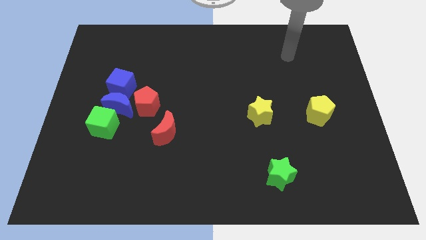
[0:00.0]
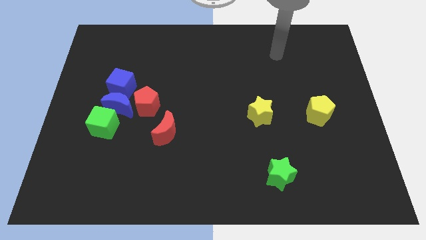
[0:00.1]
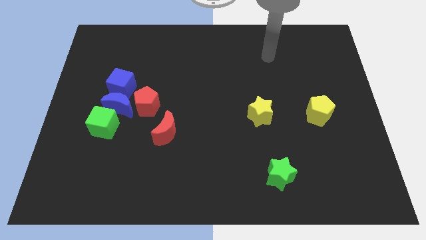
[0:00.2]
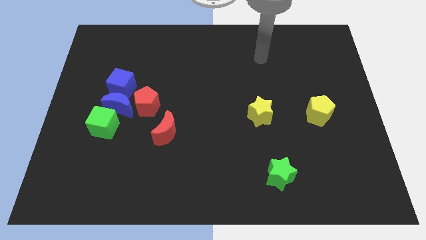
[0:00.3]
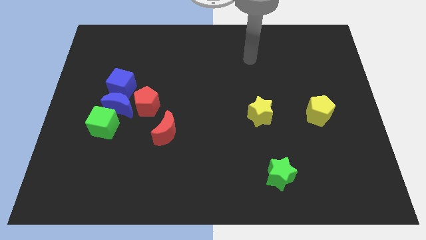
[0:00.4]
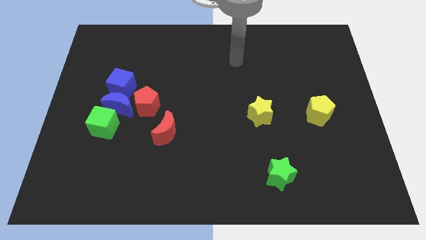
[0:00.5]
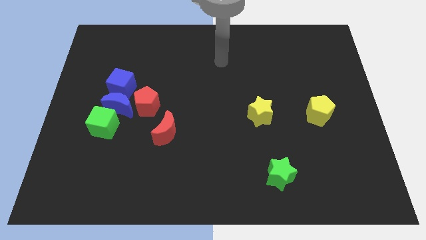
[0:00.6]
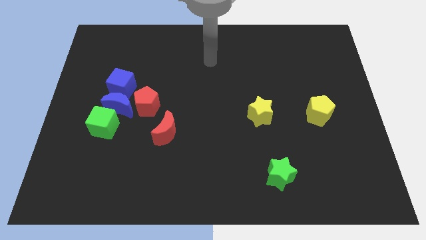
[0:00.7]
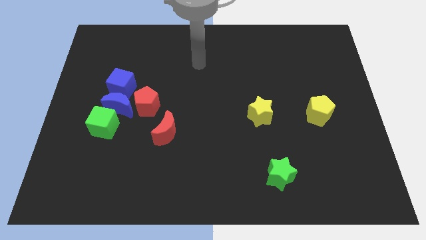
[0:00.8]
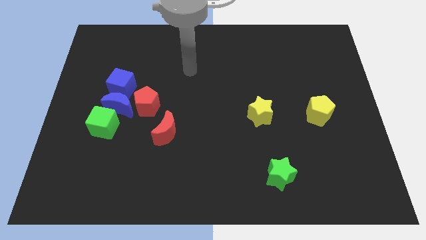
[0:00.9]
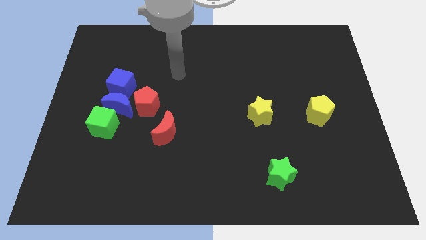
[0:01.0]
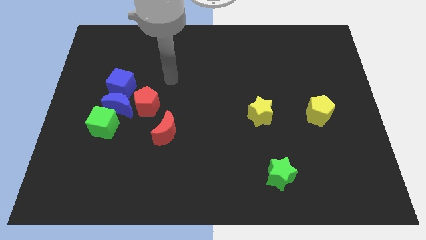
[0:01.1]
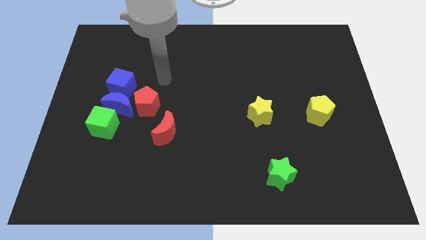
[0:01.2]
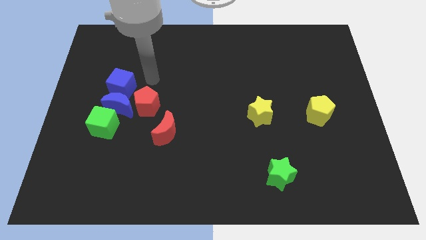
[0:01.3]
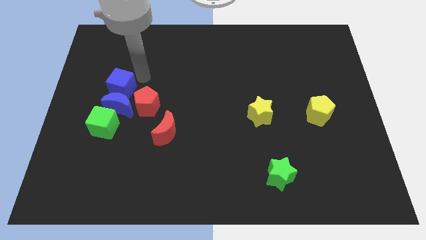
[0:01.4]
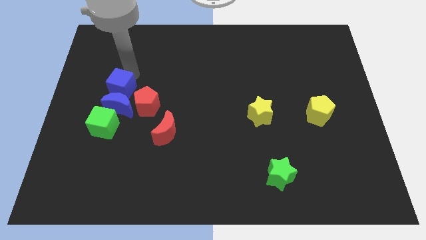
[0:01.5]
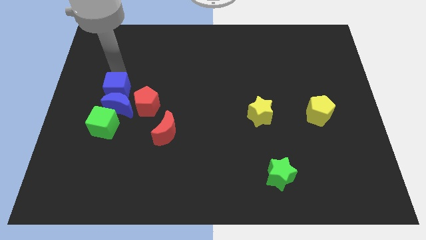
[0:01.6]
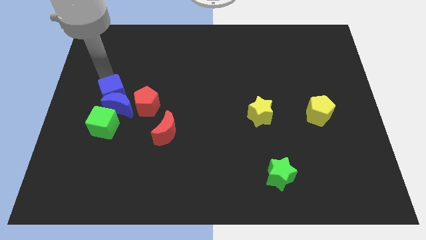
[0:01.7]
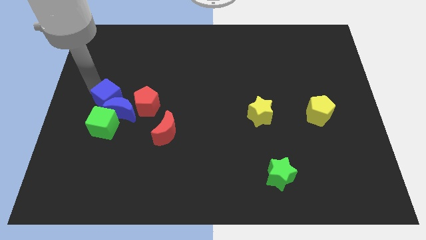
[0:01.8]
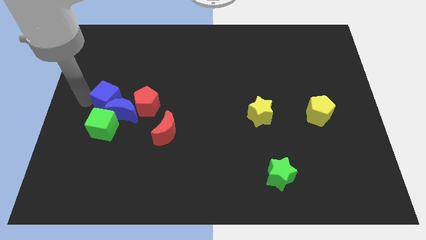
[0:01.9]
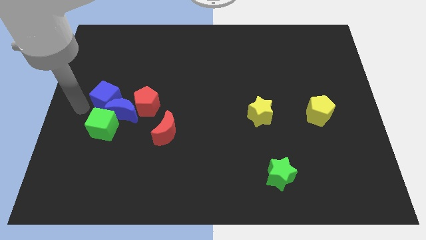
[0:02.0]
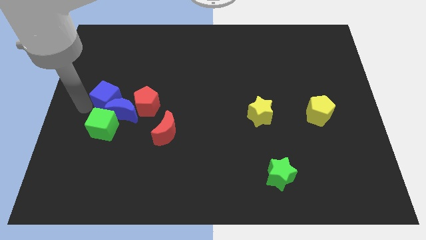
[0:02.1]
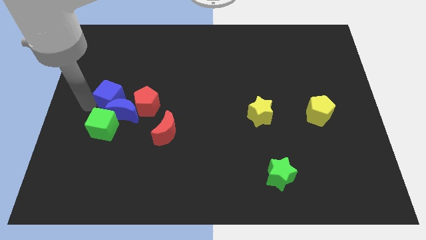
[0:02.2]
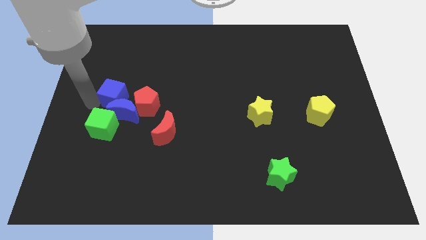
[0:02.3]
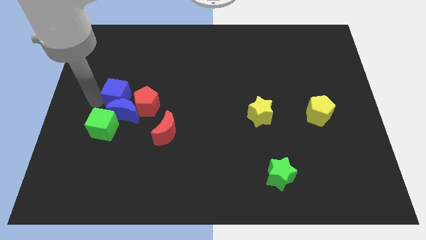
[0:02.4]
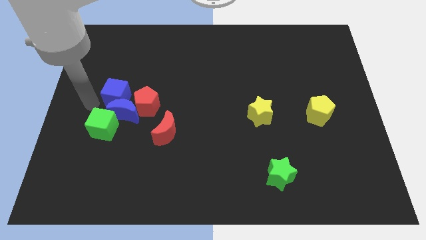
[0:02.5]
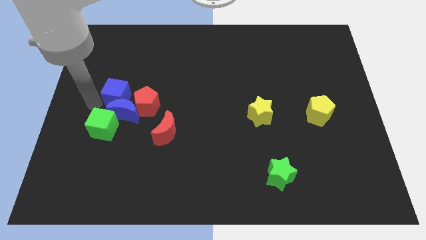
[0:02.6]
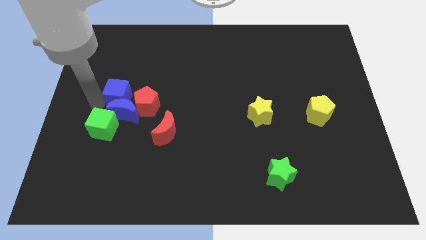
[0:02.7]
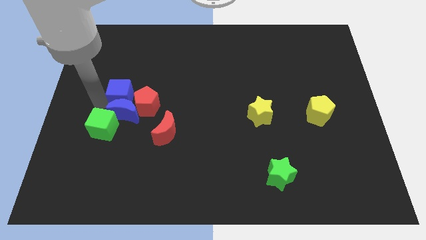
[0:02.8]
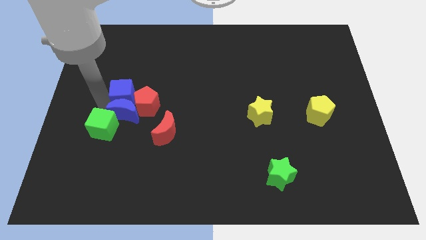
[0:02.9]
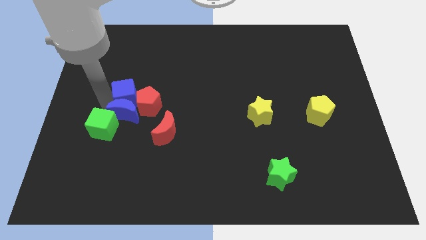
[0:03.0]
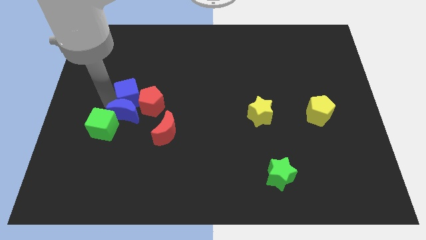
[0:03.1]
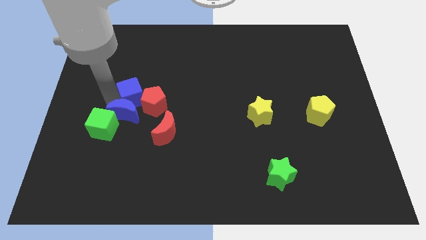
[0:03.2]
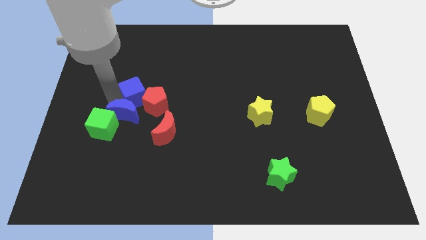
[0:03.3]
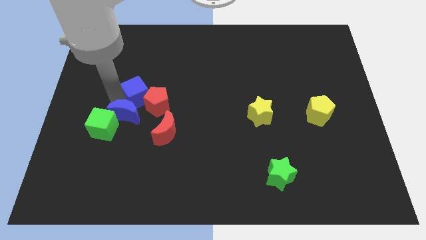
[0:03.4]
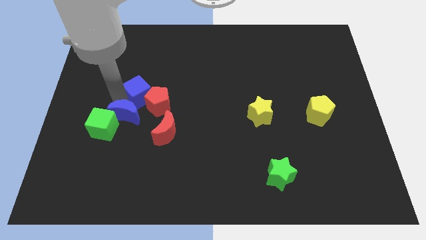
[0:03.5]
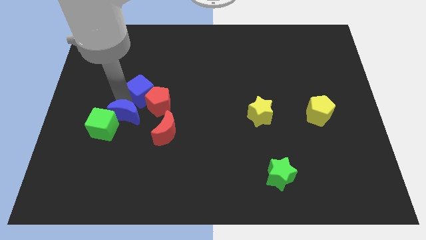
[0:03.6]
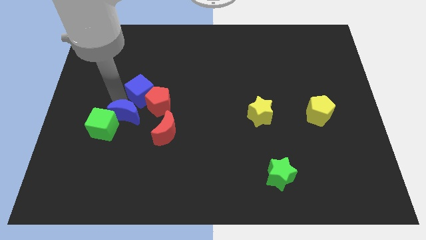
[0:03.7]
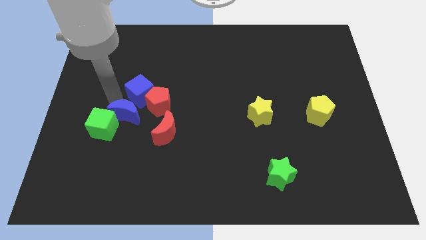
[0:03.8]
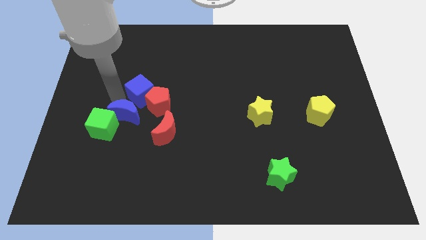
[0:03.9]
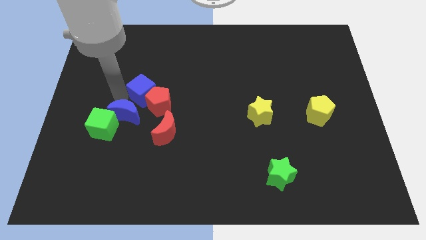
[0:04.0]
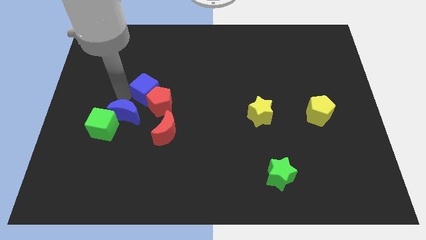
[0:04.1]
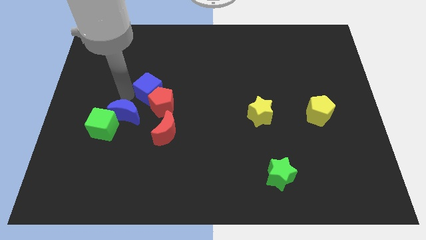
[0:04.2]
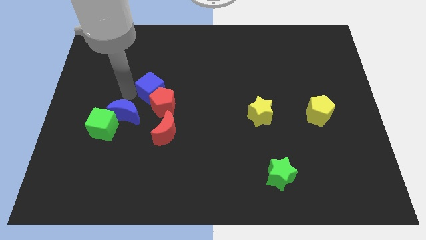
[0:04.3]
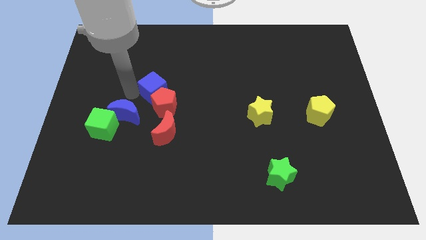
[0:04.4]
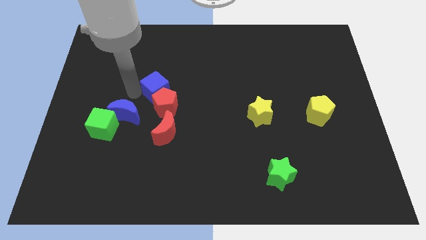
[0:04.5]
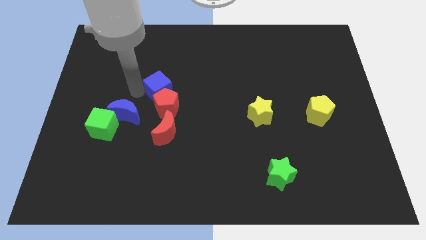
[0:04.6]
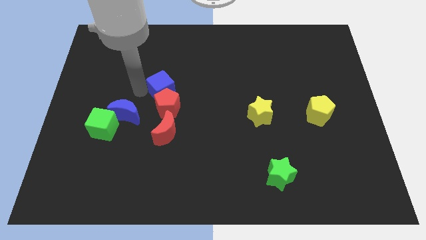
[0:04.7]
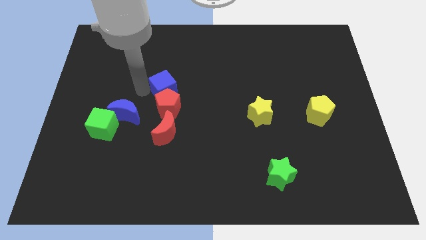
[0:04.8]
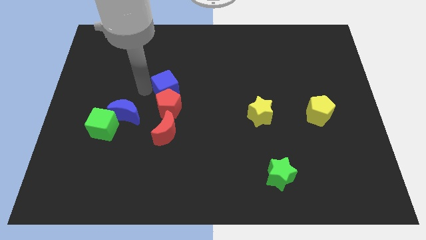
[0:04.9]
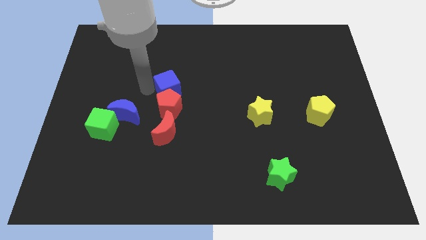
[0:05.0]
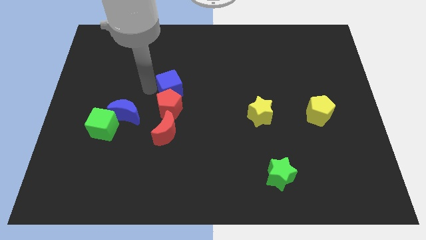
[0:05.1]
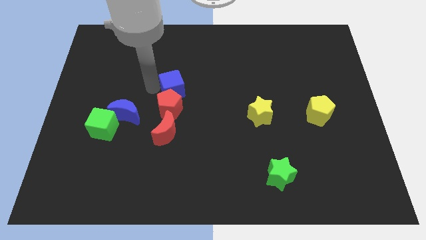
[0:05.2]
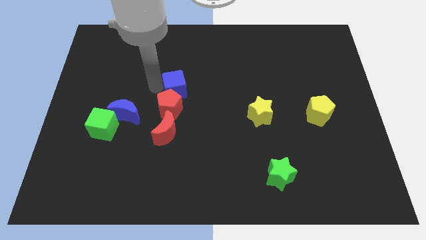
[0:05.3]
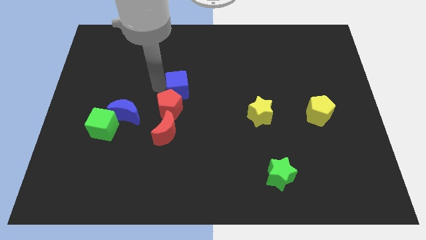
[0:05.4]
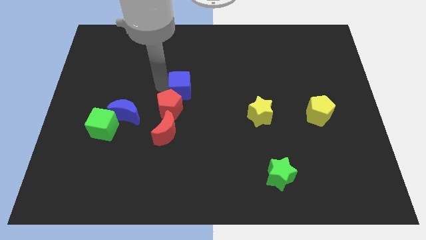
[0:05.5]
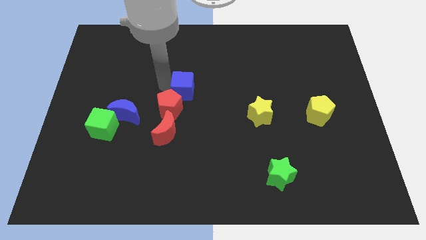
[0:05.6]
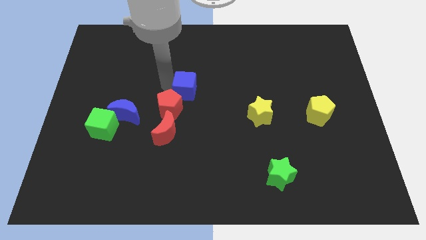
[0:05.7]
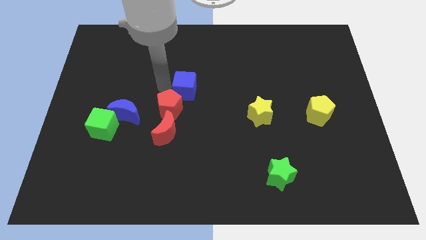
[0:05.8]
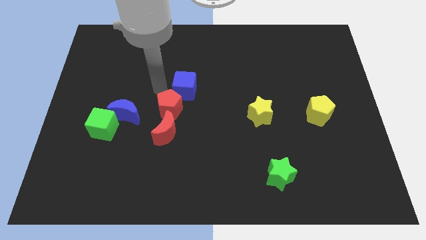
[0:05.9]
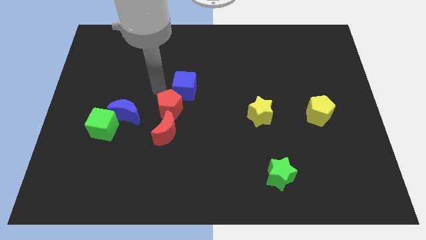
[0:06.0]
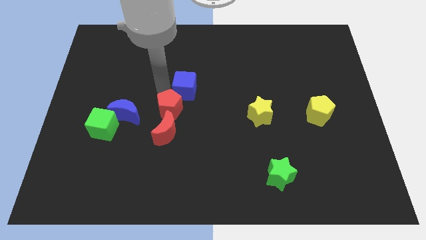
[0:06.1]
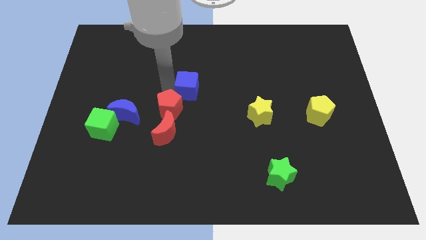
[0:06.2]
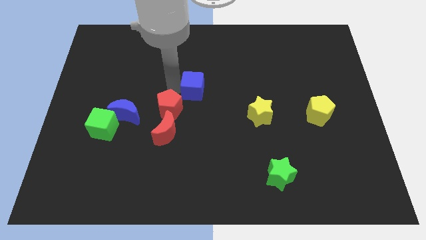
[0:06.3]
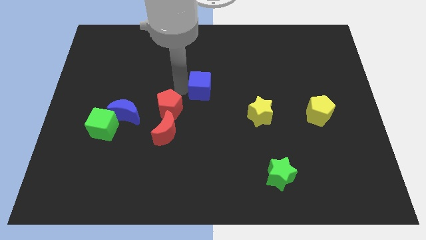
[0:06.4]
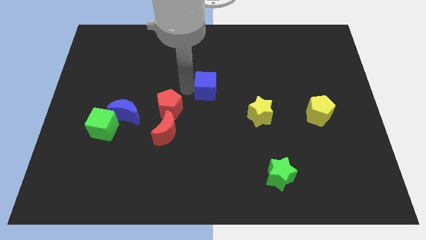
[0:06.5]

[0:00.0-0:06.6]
move the blue cube right

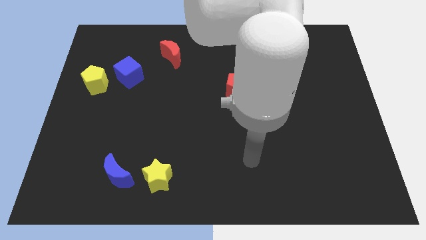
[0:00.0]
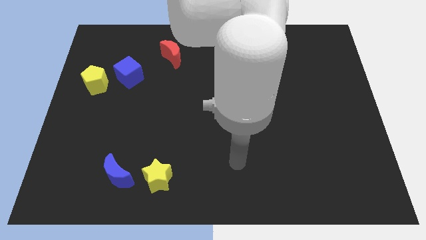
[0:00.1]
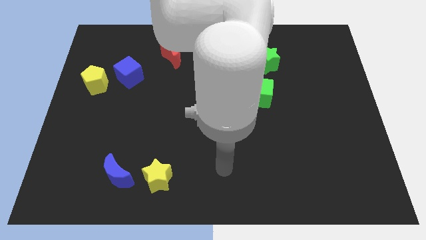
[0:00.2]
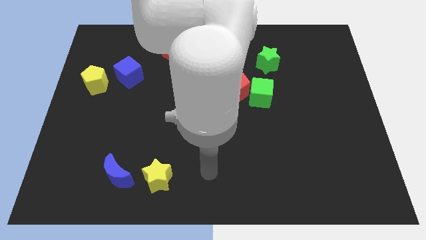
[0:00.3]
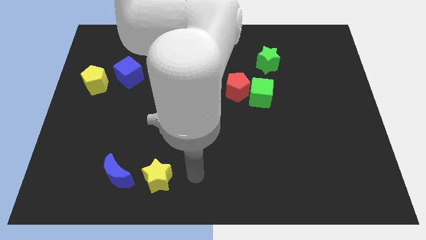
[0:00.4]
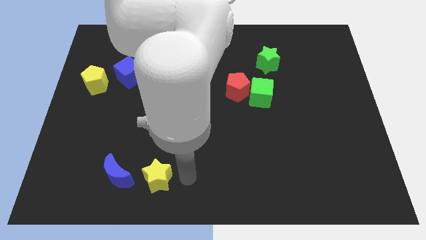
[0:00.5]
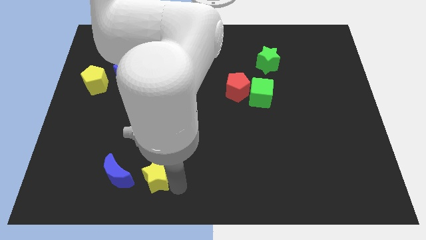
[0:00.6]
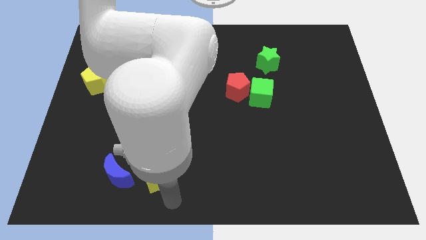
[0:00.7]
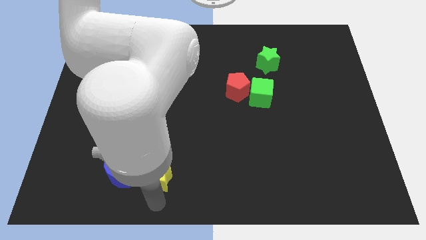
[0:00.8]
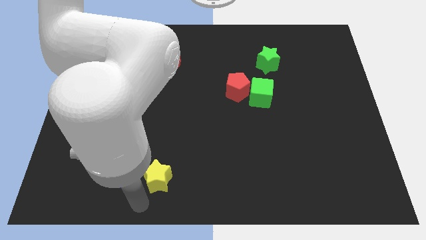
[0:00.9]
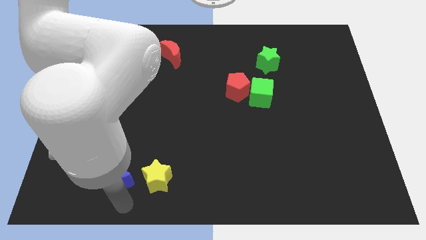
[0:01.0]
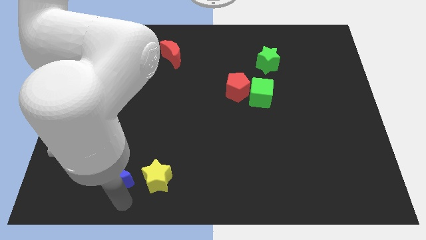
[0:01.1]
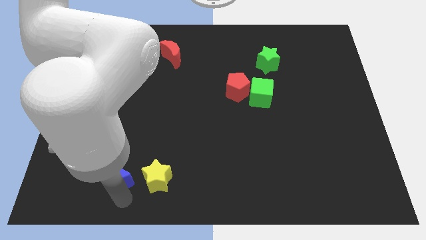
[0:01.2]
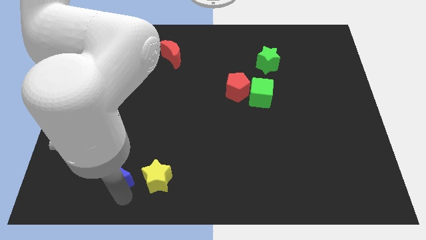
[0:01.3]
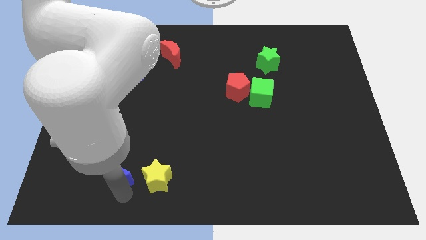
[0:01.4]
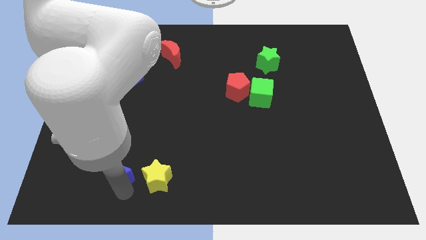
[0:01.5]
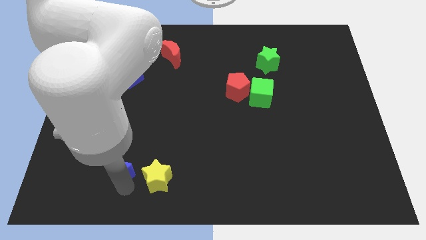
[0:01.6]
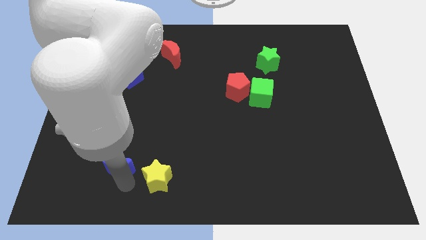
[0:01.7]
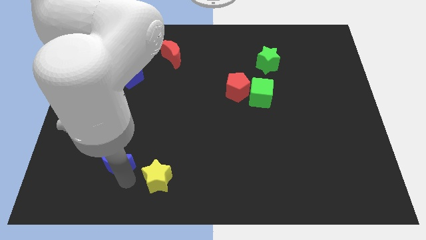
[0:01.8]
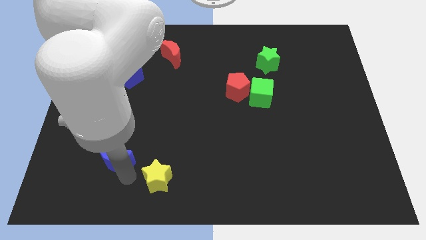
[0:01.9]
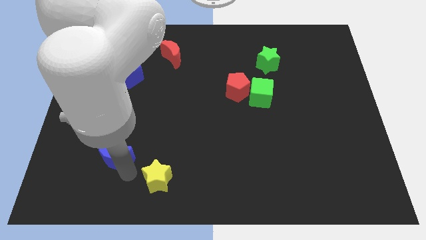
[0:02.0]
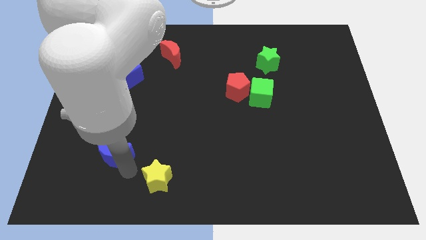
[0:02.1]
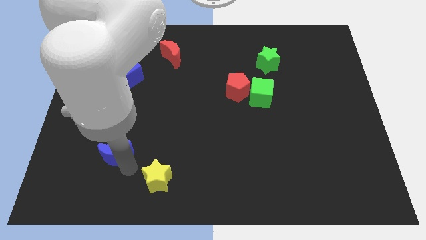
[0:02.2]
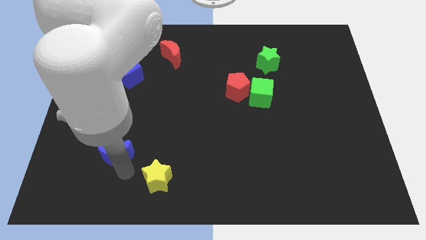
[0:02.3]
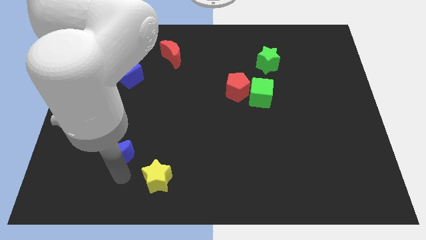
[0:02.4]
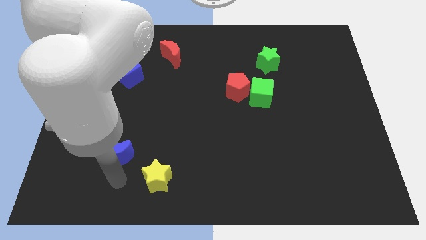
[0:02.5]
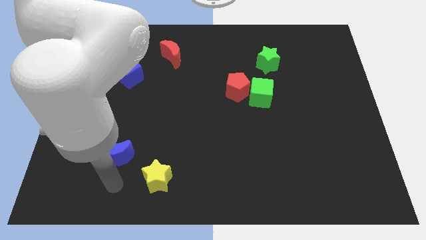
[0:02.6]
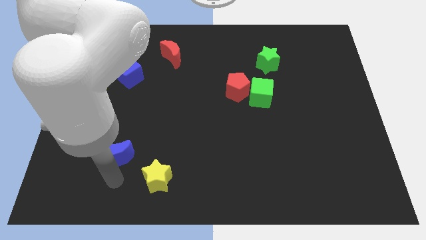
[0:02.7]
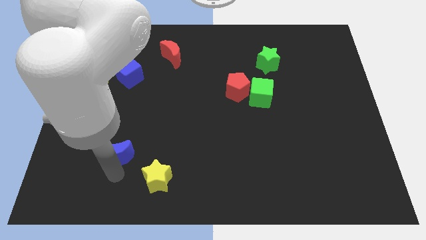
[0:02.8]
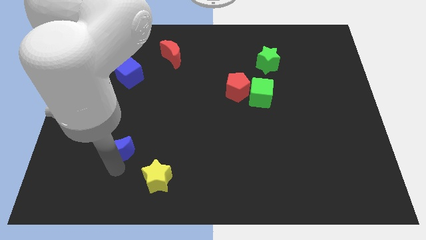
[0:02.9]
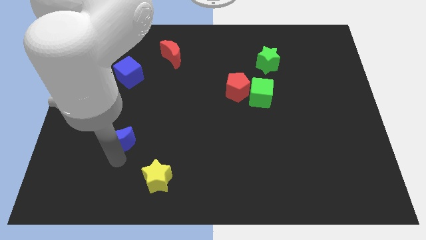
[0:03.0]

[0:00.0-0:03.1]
slide the blue moon up a bit
